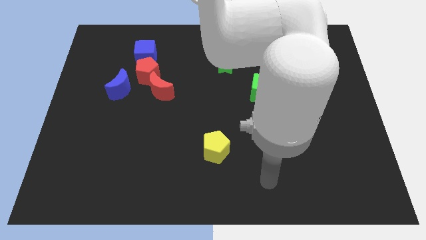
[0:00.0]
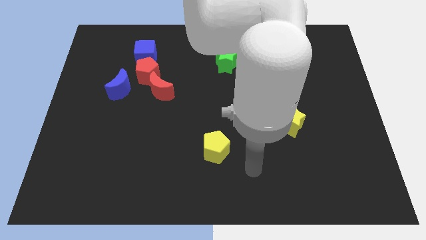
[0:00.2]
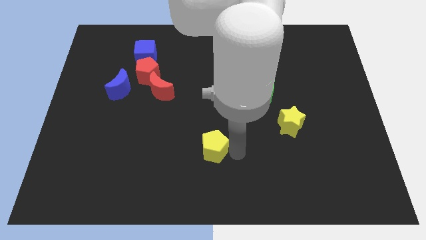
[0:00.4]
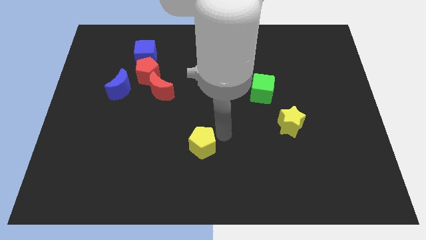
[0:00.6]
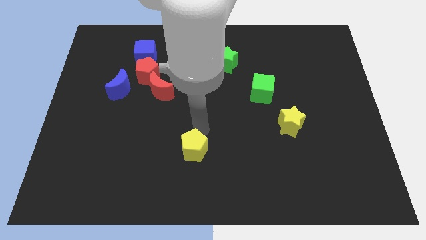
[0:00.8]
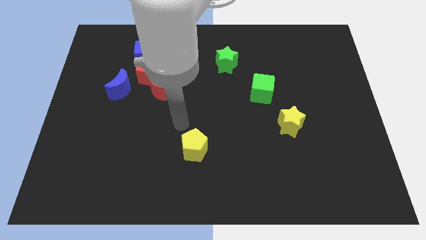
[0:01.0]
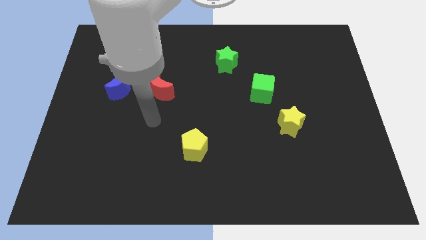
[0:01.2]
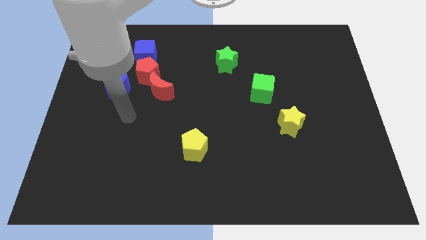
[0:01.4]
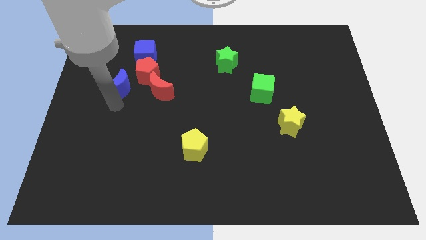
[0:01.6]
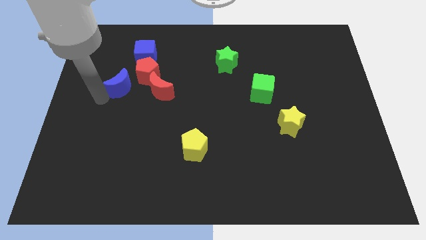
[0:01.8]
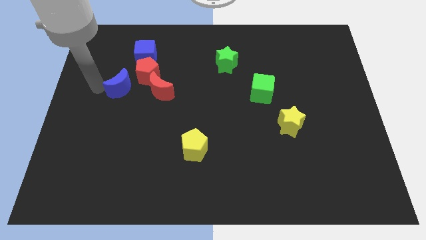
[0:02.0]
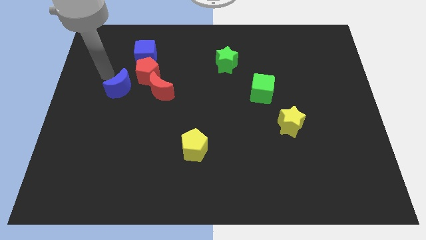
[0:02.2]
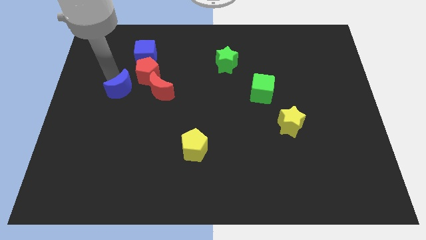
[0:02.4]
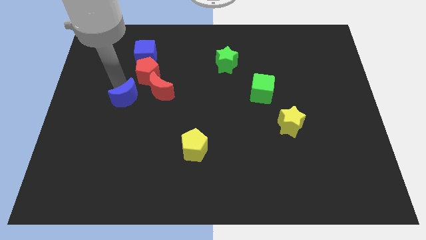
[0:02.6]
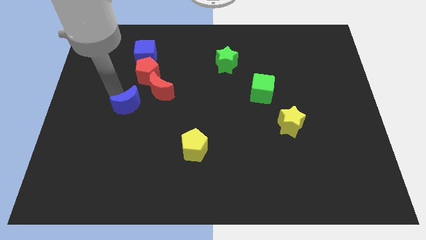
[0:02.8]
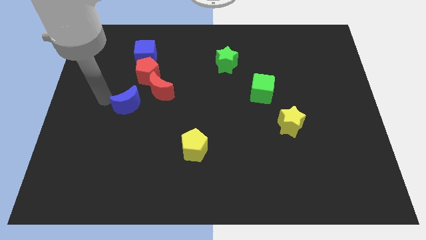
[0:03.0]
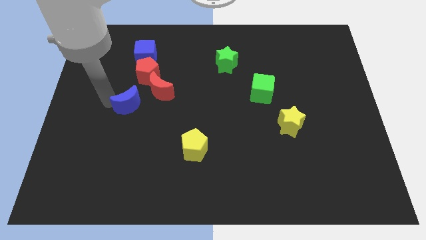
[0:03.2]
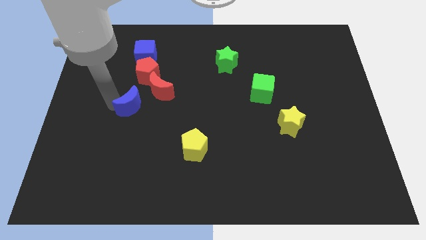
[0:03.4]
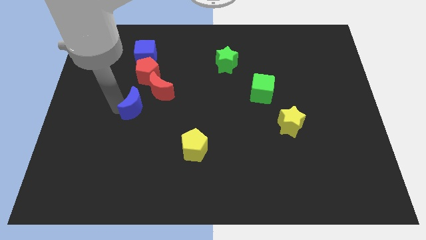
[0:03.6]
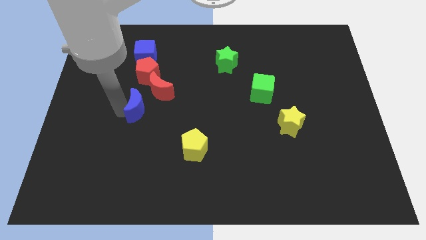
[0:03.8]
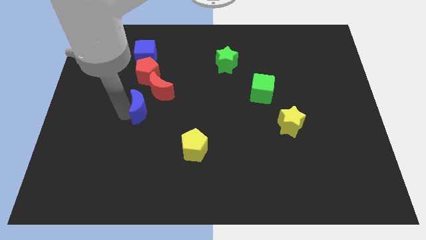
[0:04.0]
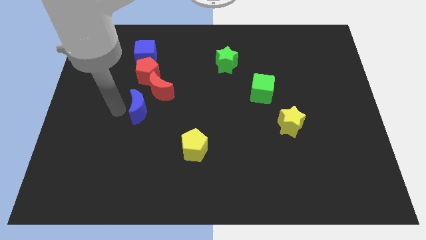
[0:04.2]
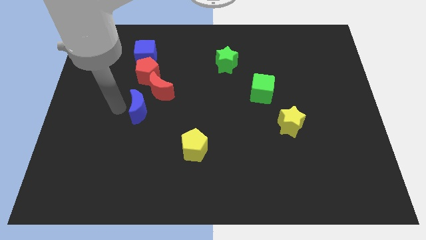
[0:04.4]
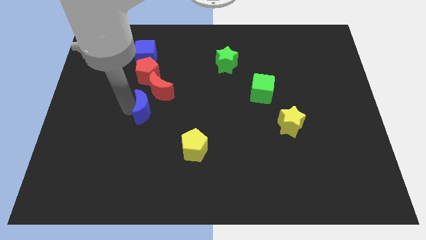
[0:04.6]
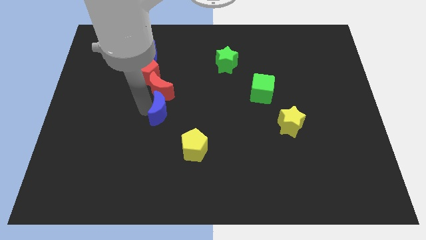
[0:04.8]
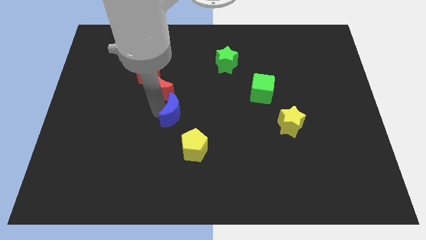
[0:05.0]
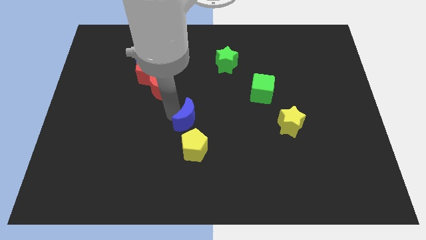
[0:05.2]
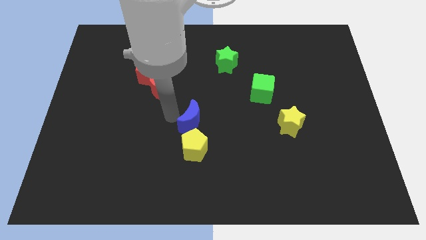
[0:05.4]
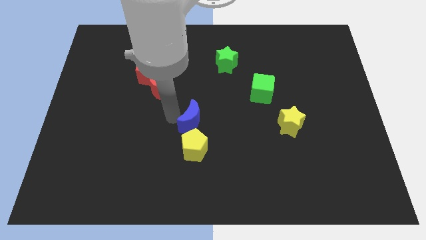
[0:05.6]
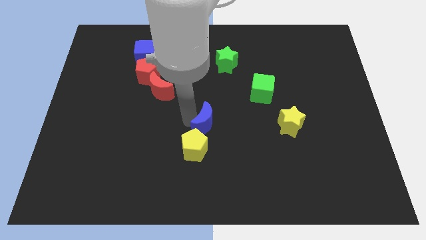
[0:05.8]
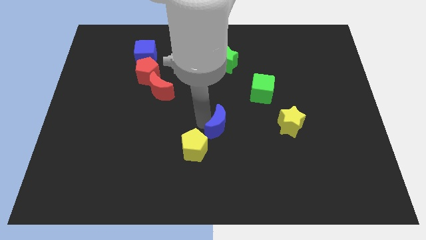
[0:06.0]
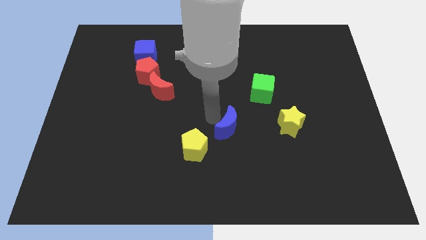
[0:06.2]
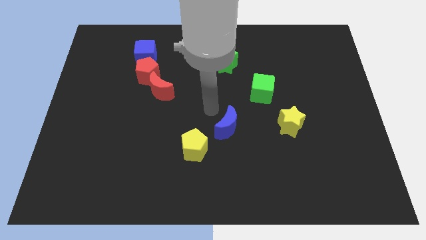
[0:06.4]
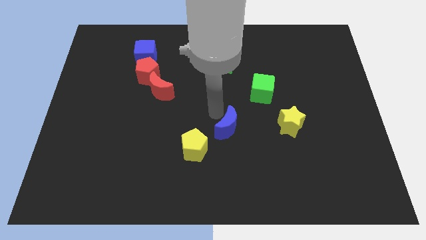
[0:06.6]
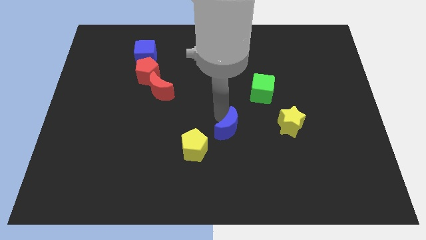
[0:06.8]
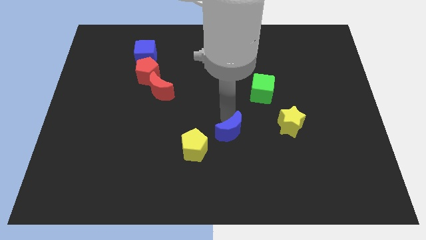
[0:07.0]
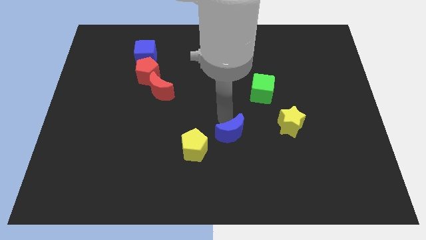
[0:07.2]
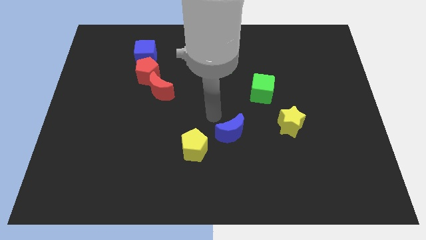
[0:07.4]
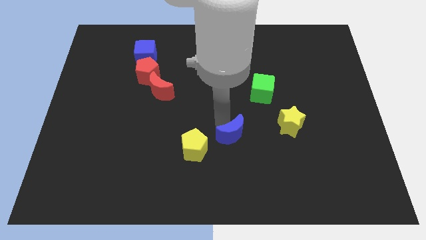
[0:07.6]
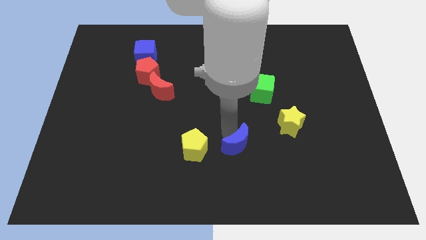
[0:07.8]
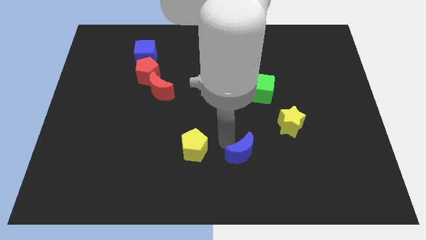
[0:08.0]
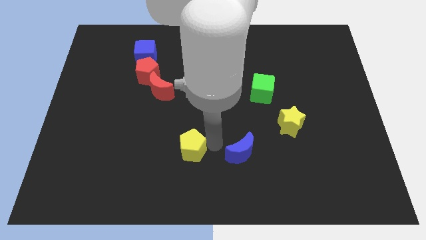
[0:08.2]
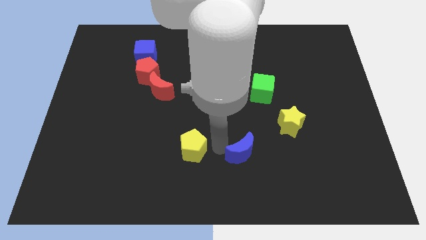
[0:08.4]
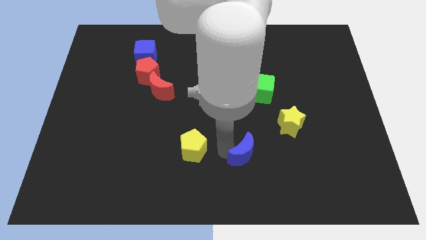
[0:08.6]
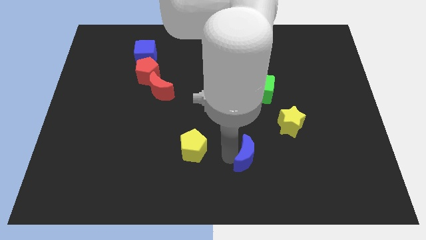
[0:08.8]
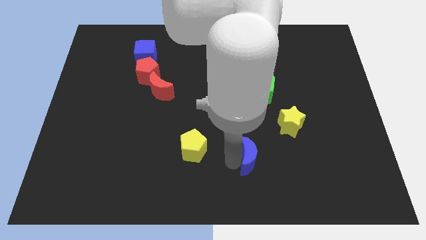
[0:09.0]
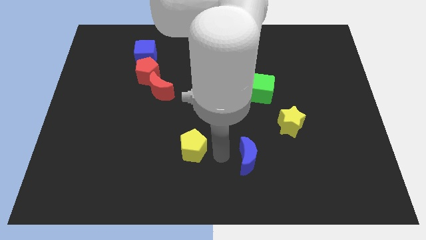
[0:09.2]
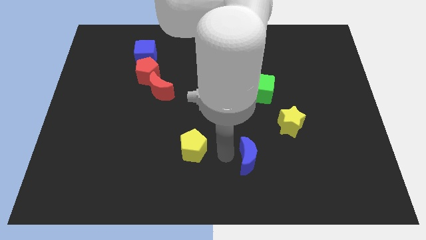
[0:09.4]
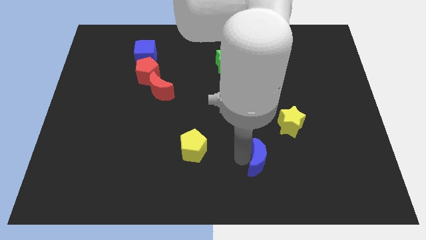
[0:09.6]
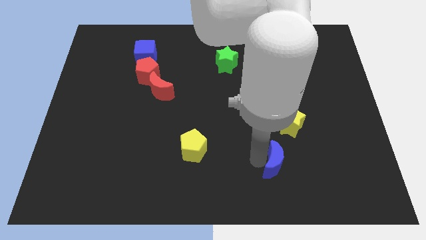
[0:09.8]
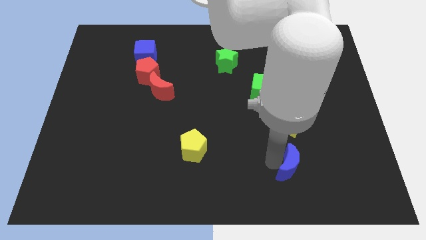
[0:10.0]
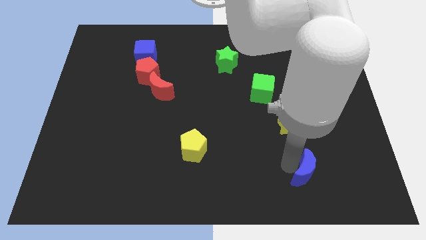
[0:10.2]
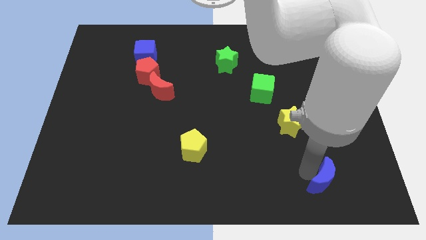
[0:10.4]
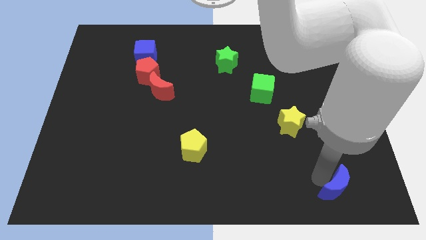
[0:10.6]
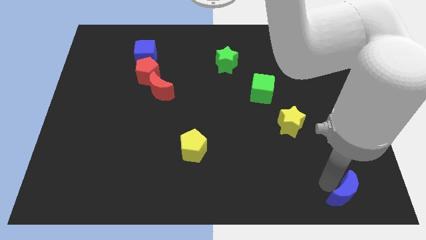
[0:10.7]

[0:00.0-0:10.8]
push the blue moon to the lower right corner

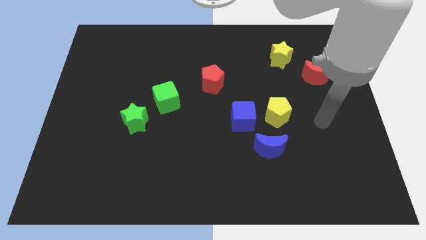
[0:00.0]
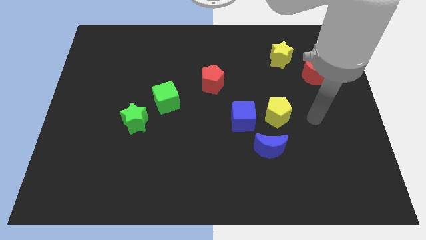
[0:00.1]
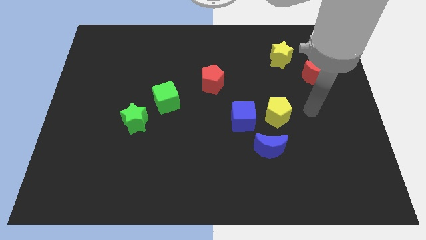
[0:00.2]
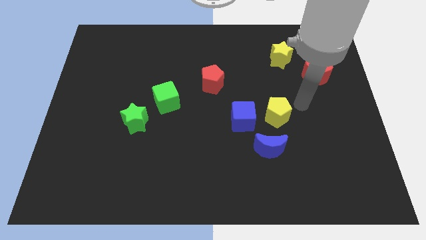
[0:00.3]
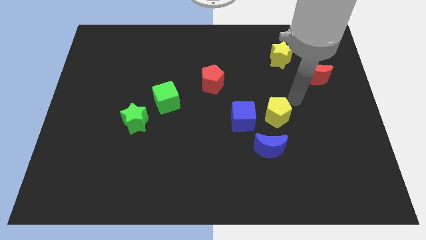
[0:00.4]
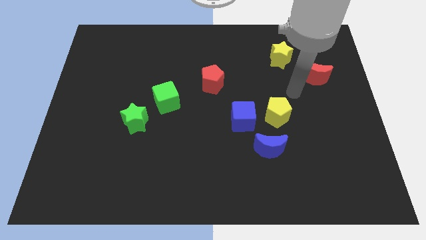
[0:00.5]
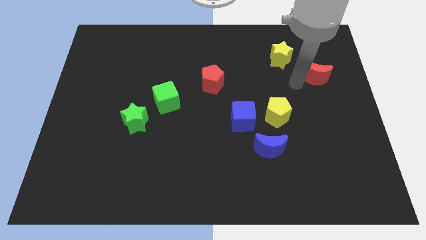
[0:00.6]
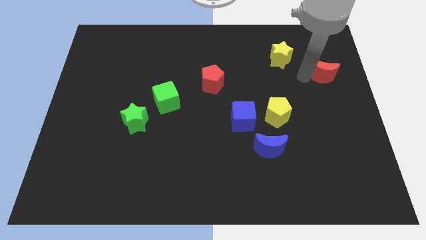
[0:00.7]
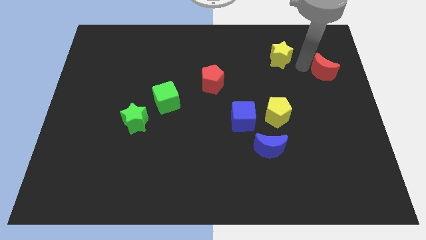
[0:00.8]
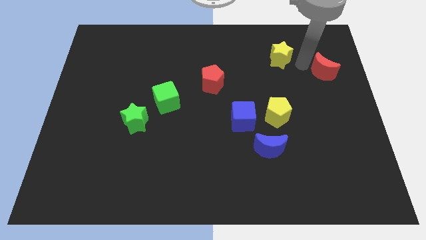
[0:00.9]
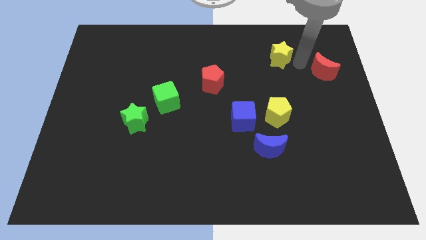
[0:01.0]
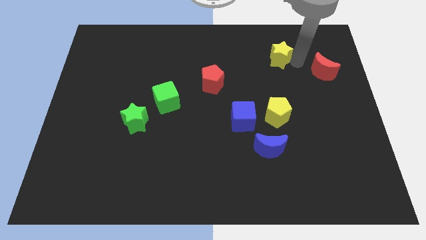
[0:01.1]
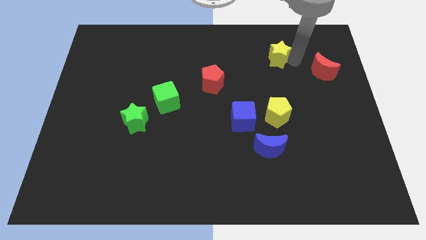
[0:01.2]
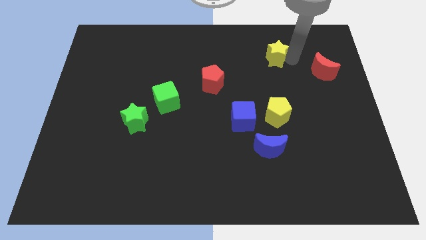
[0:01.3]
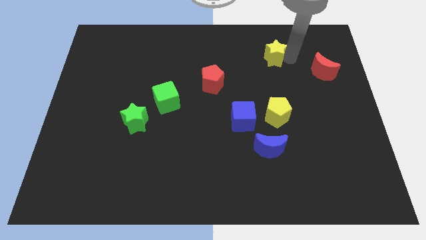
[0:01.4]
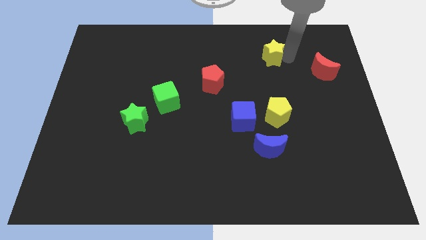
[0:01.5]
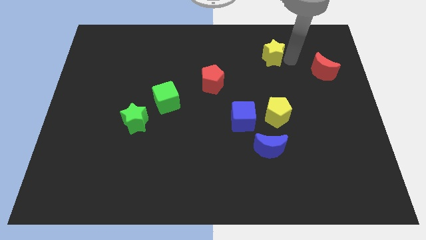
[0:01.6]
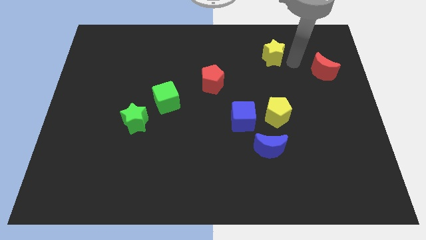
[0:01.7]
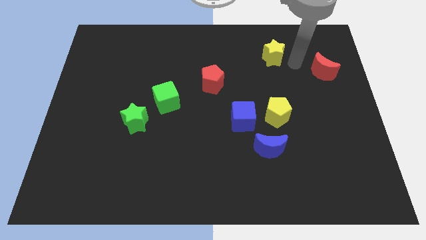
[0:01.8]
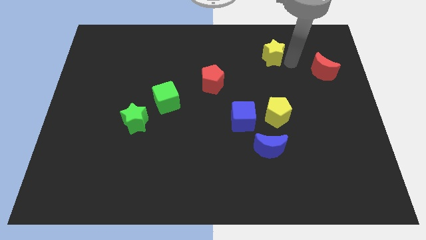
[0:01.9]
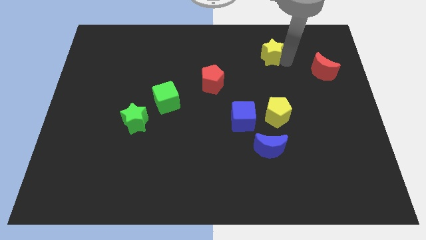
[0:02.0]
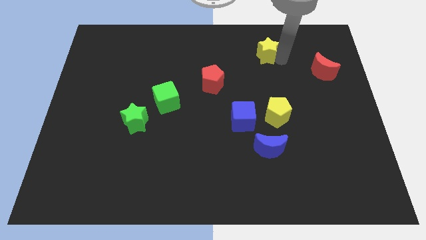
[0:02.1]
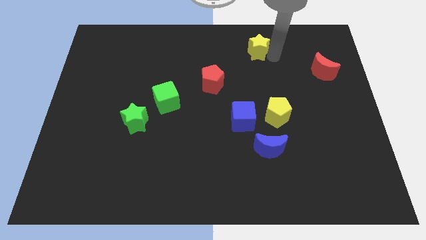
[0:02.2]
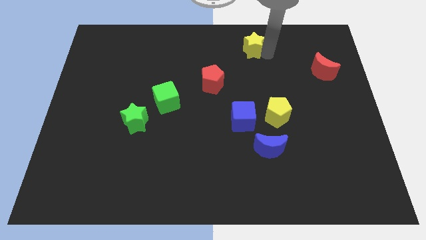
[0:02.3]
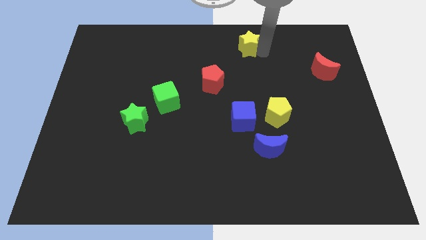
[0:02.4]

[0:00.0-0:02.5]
push the yellow star to the towards your base
